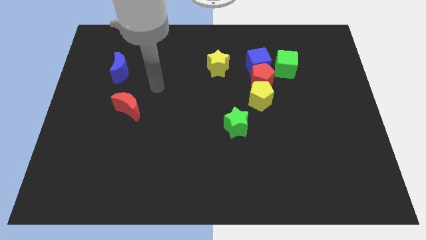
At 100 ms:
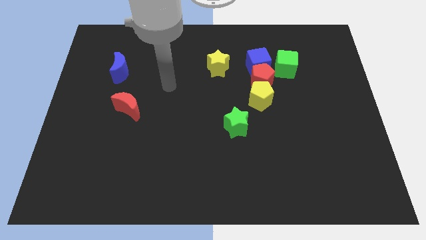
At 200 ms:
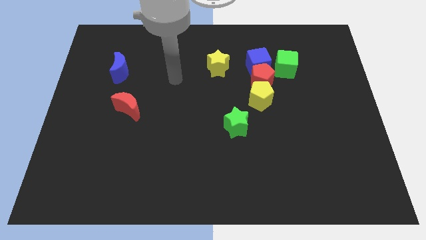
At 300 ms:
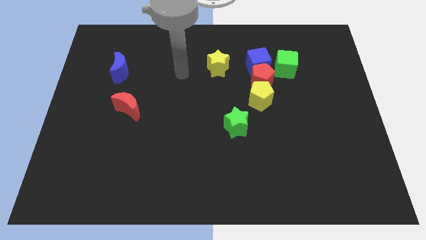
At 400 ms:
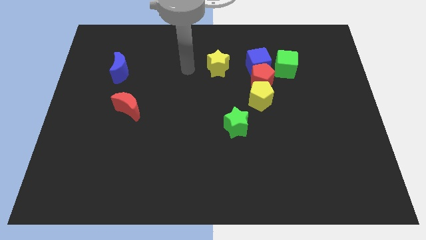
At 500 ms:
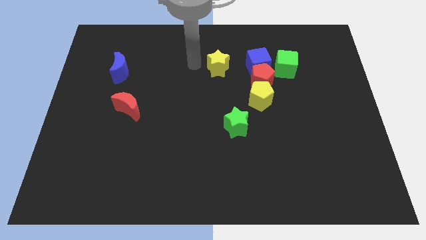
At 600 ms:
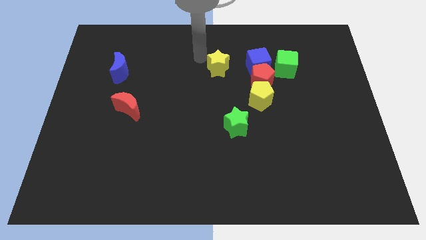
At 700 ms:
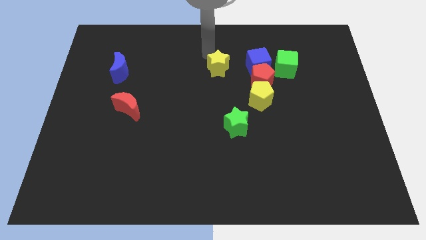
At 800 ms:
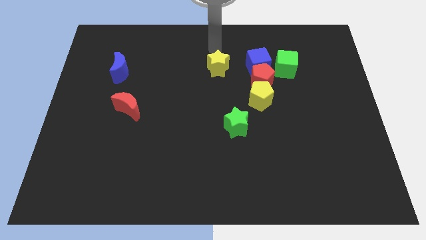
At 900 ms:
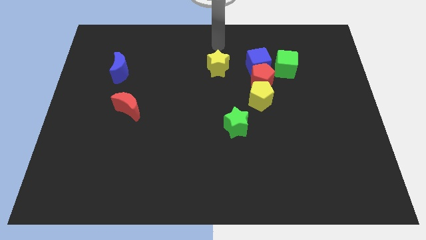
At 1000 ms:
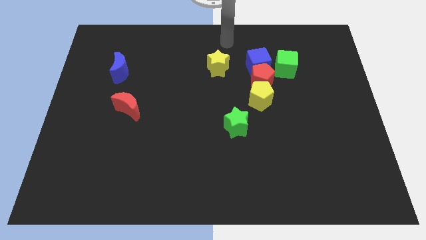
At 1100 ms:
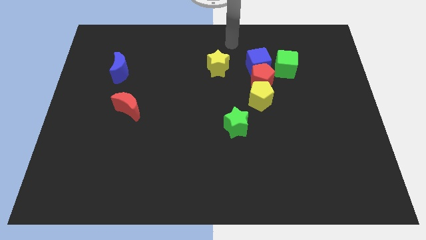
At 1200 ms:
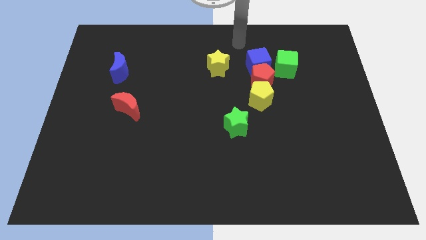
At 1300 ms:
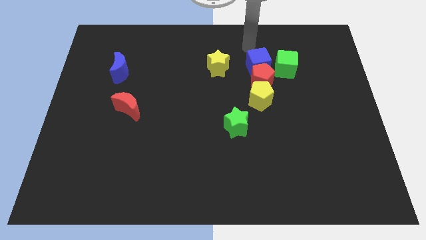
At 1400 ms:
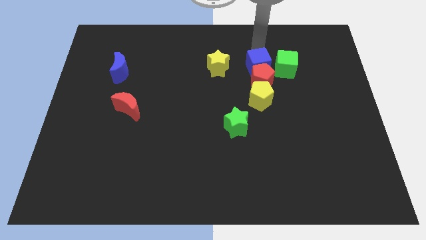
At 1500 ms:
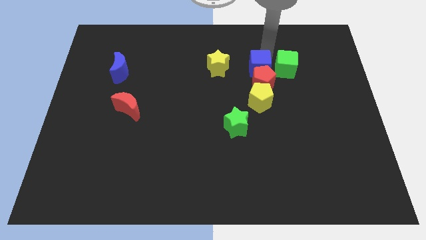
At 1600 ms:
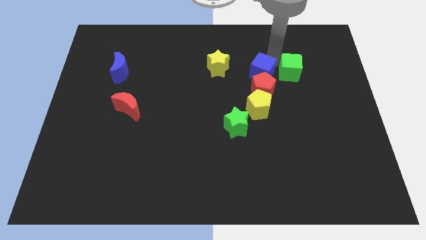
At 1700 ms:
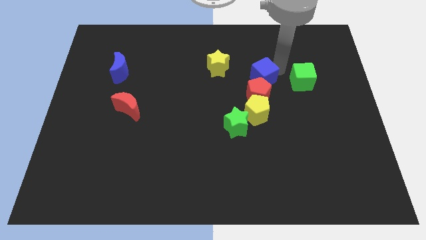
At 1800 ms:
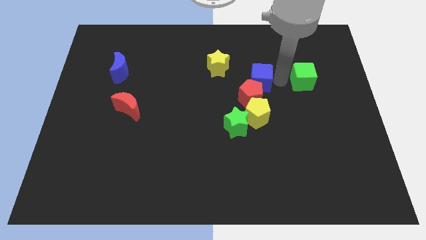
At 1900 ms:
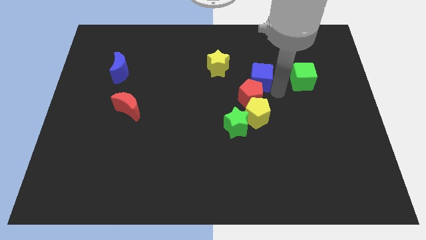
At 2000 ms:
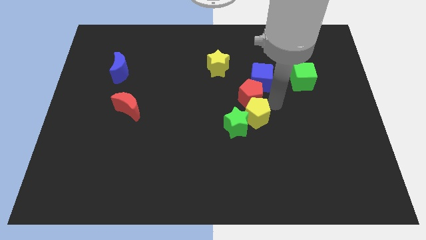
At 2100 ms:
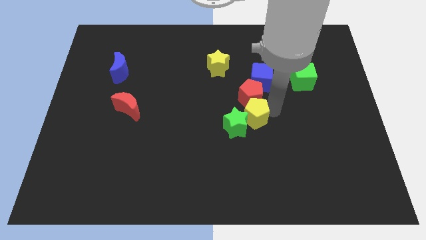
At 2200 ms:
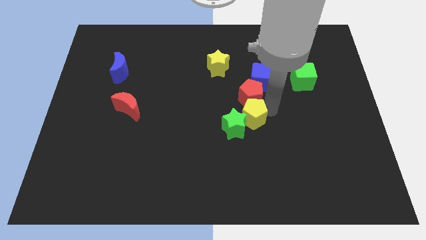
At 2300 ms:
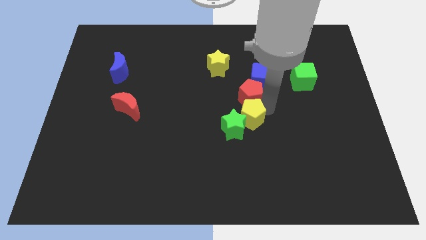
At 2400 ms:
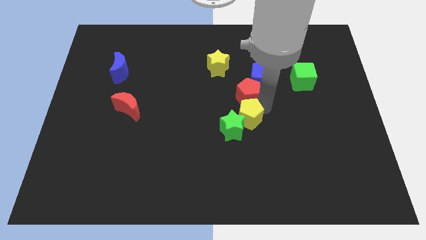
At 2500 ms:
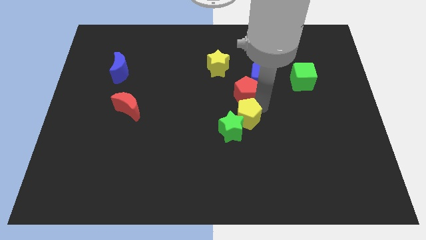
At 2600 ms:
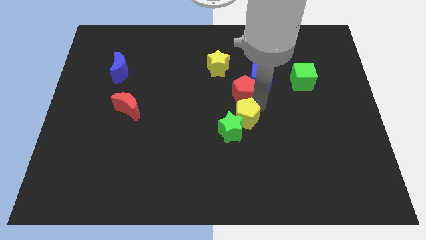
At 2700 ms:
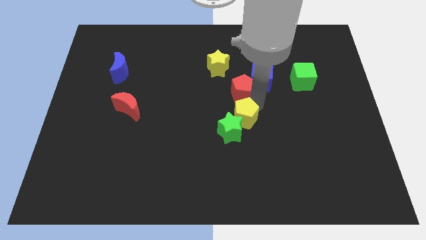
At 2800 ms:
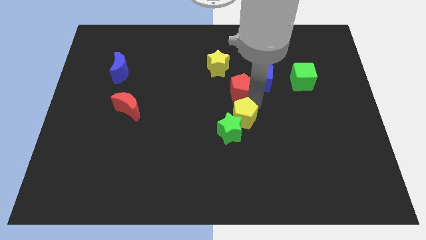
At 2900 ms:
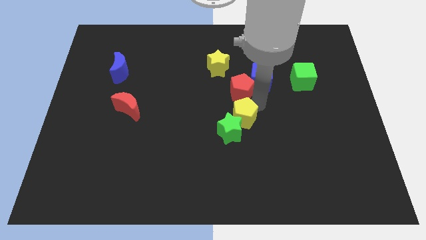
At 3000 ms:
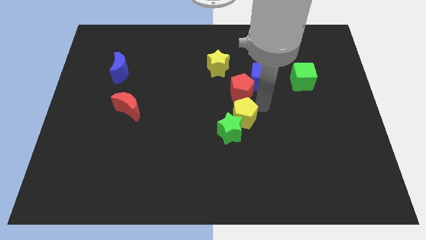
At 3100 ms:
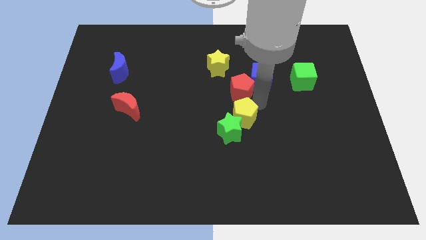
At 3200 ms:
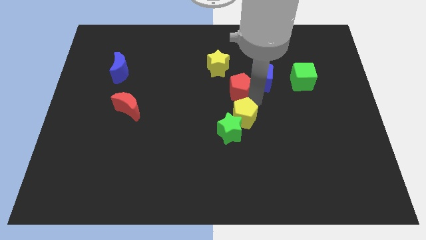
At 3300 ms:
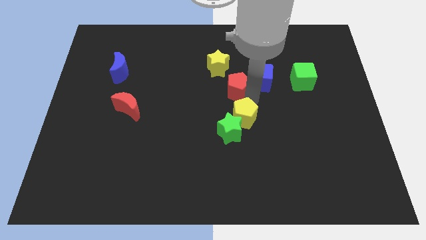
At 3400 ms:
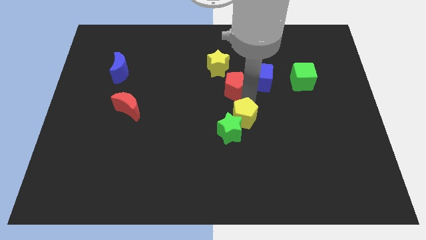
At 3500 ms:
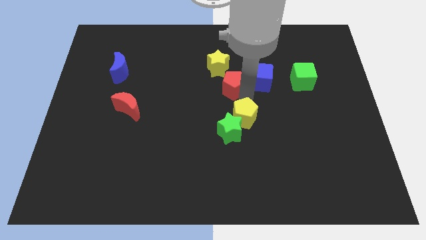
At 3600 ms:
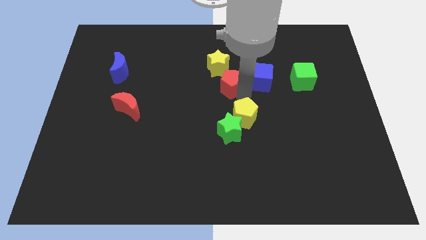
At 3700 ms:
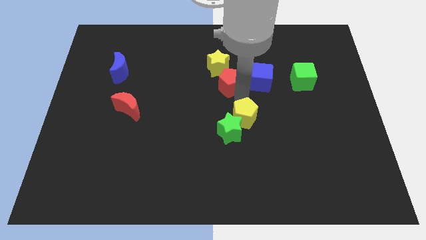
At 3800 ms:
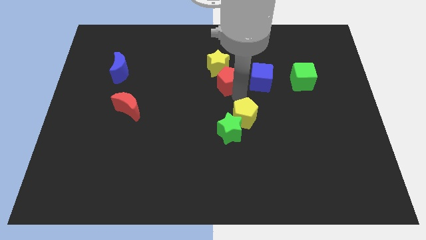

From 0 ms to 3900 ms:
separate the red pentagon from the blue cube, yellow pentagon, and green cube

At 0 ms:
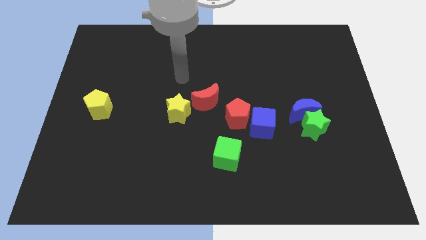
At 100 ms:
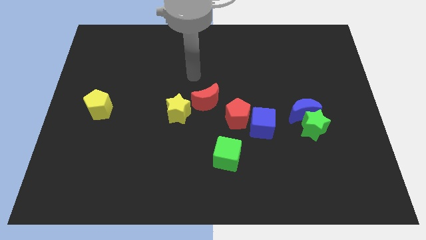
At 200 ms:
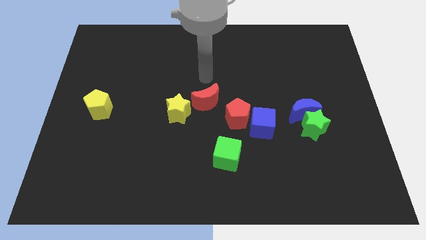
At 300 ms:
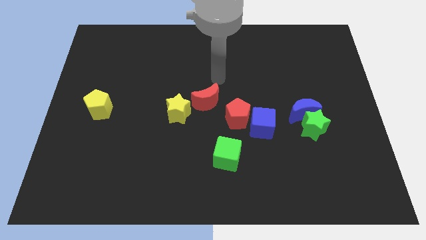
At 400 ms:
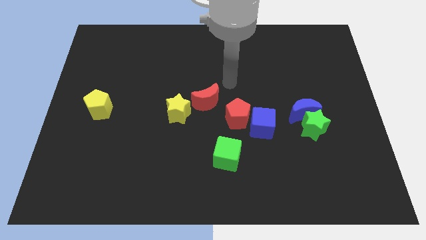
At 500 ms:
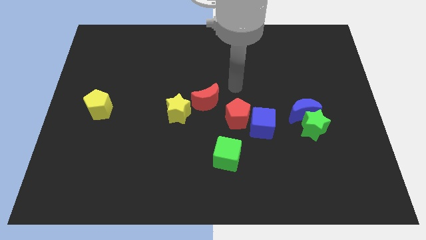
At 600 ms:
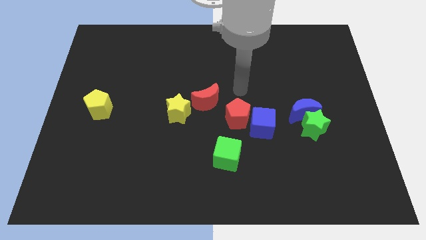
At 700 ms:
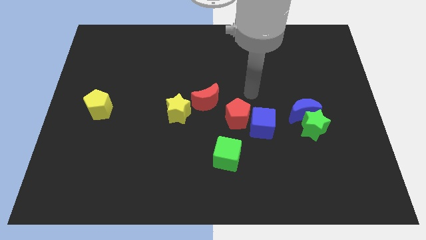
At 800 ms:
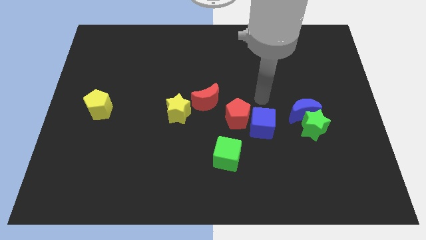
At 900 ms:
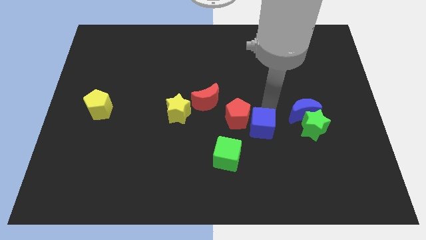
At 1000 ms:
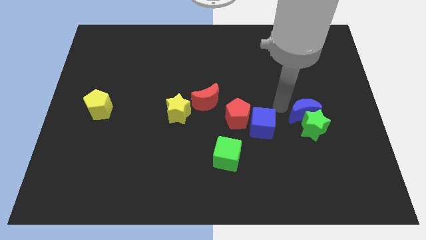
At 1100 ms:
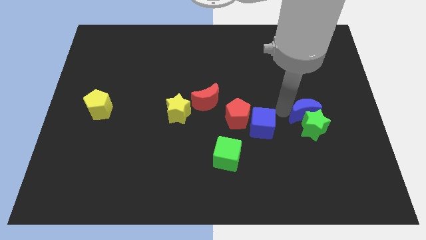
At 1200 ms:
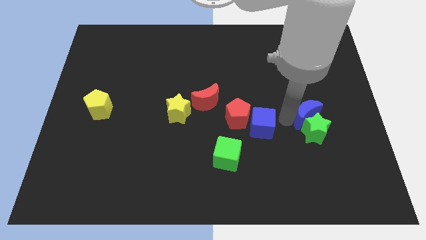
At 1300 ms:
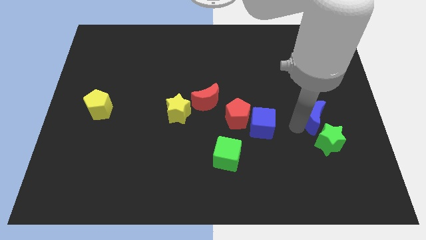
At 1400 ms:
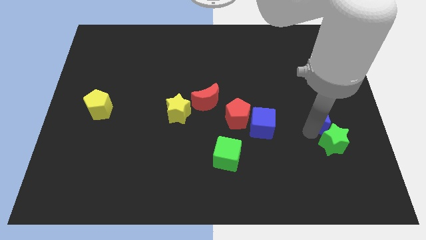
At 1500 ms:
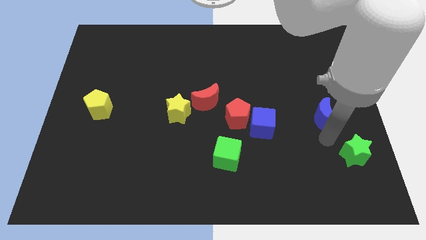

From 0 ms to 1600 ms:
separate the blue moon from the green star

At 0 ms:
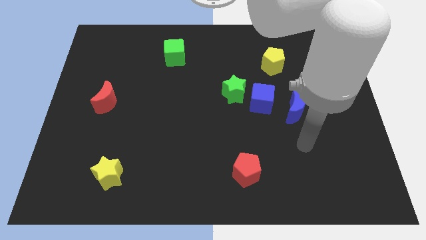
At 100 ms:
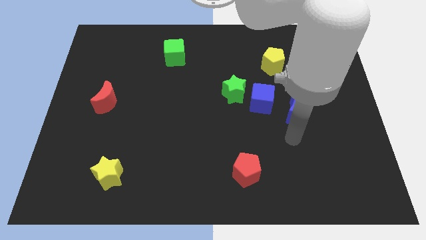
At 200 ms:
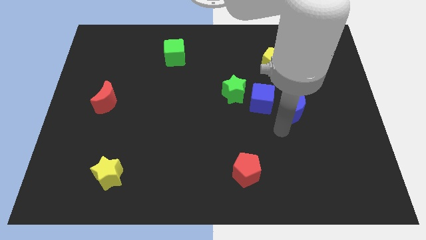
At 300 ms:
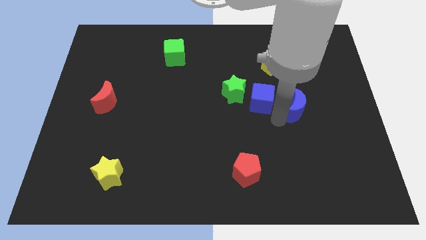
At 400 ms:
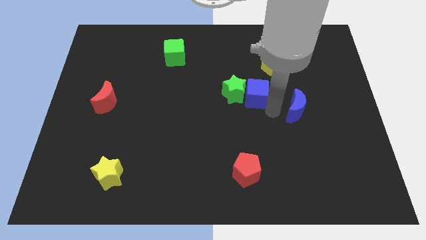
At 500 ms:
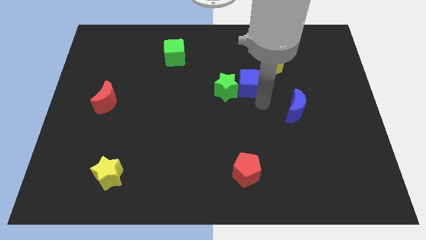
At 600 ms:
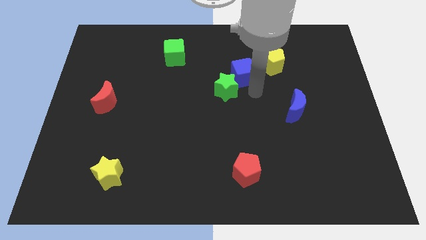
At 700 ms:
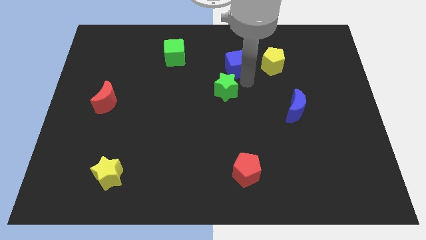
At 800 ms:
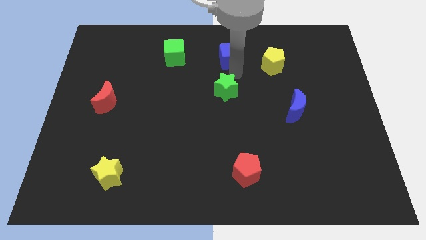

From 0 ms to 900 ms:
move the green star away from the blue cube

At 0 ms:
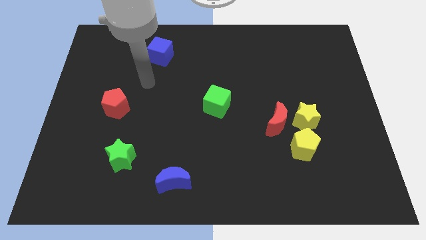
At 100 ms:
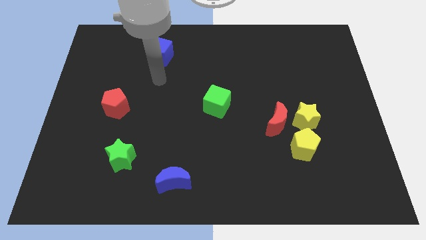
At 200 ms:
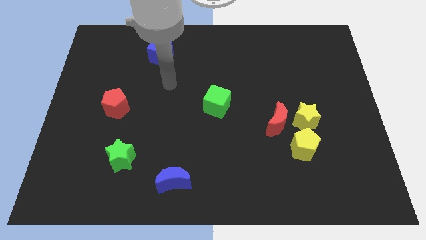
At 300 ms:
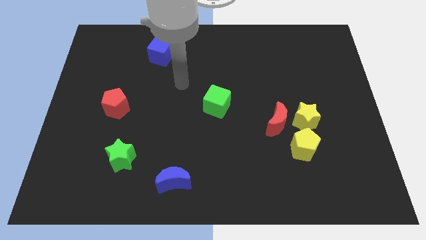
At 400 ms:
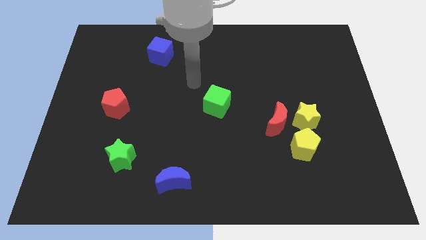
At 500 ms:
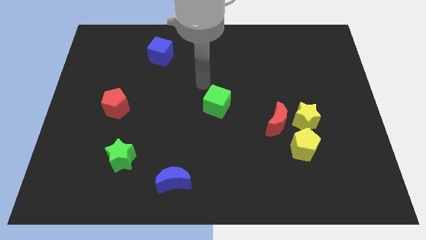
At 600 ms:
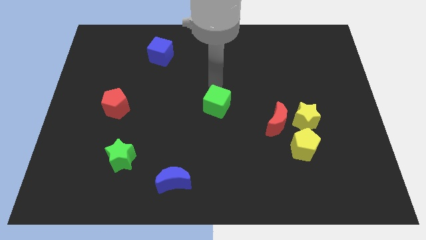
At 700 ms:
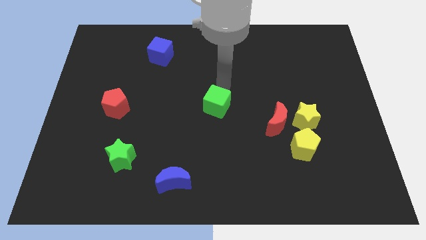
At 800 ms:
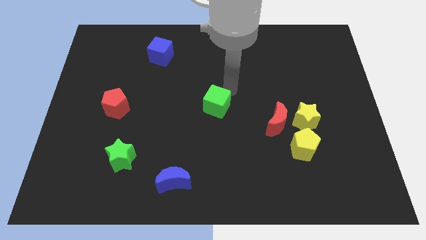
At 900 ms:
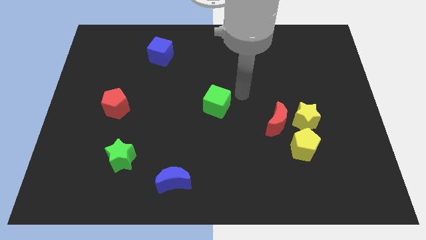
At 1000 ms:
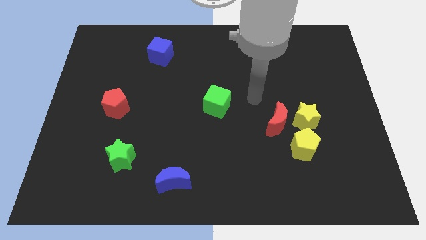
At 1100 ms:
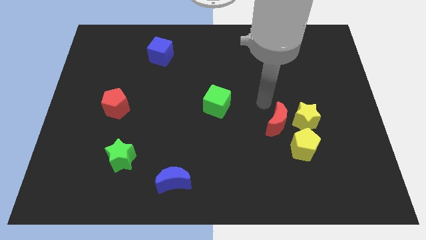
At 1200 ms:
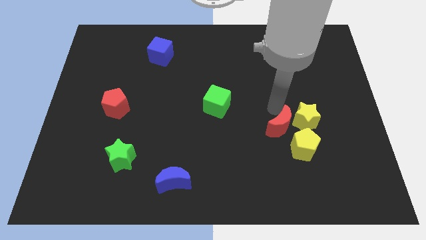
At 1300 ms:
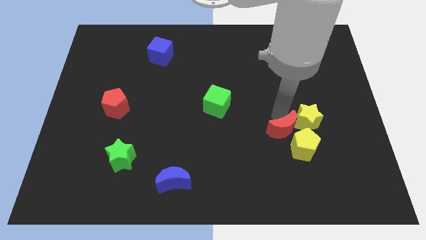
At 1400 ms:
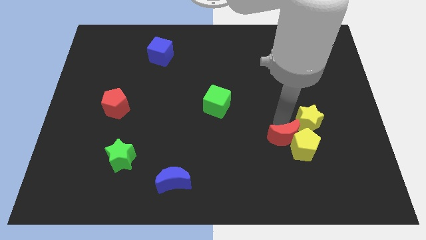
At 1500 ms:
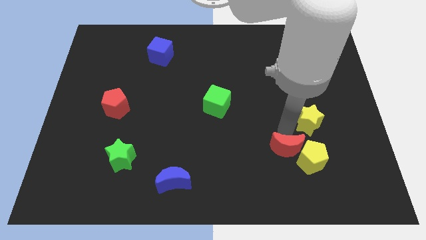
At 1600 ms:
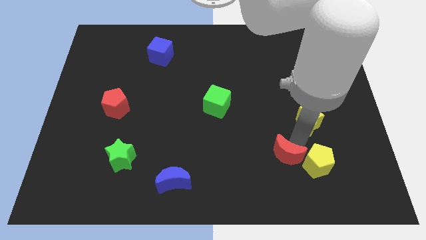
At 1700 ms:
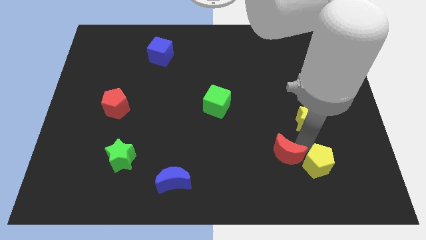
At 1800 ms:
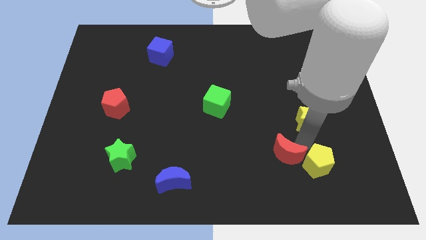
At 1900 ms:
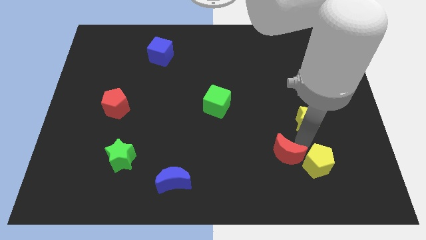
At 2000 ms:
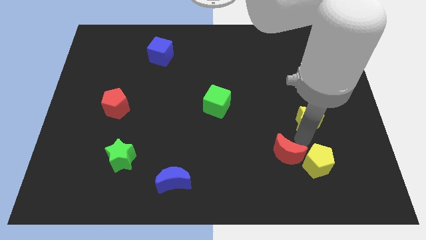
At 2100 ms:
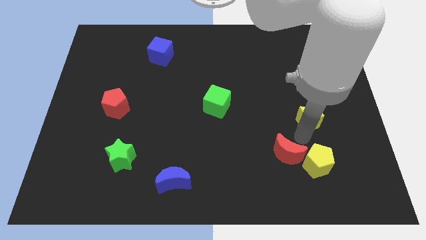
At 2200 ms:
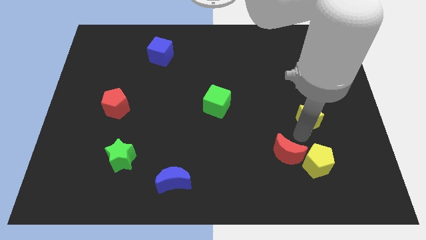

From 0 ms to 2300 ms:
pull the yellow star apart from the red moon and yellow pentagon

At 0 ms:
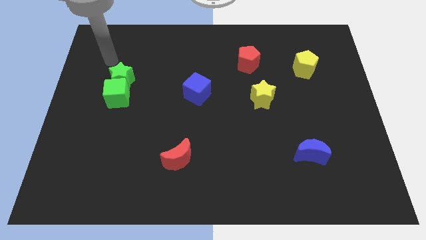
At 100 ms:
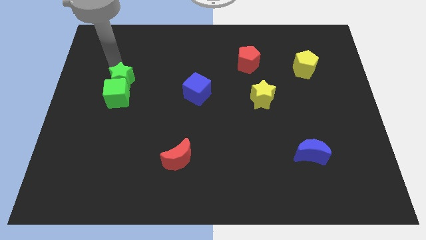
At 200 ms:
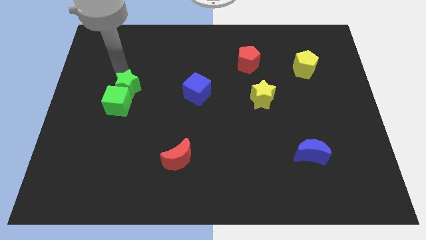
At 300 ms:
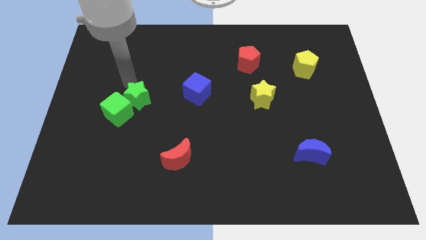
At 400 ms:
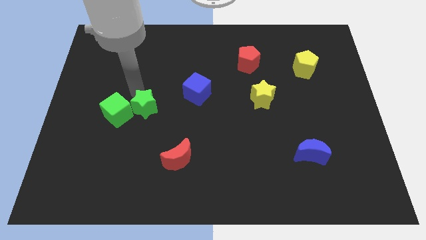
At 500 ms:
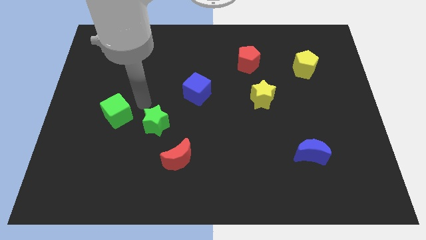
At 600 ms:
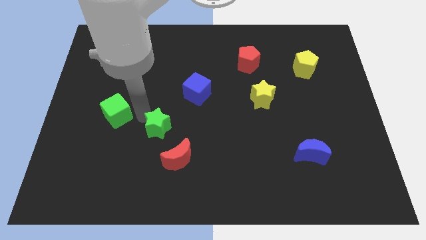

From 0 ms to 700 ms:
pull the green cube apart from the green star
